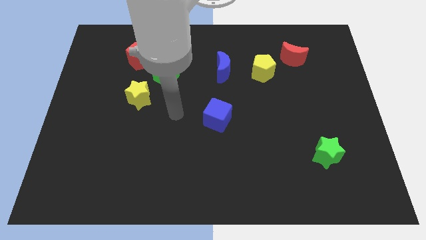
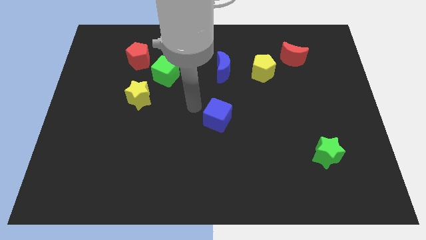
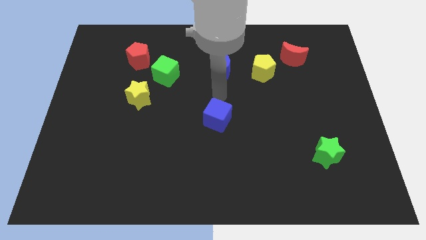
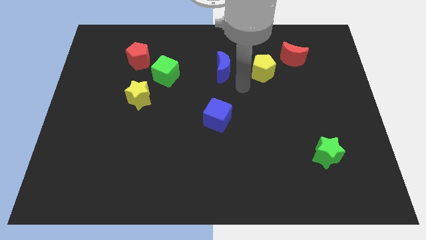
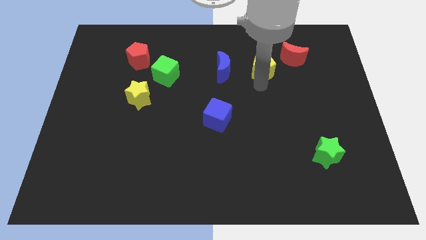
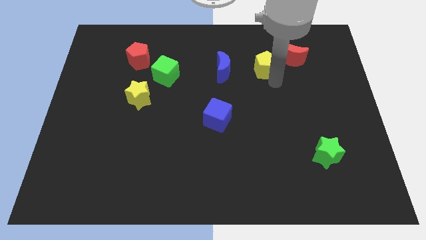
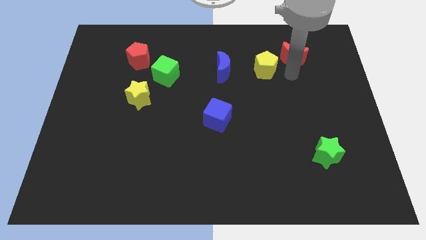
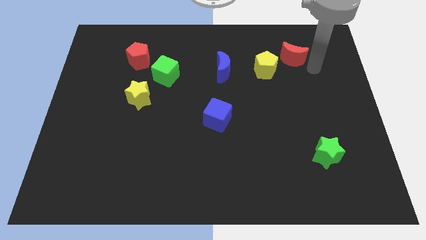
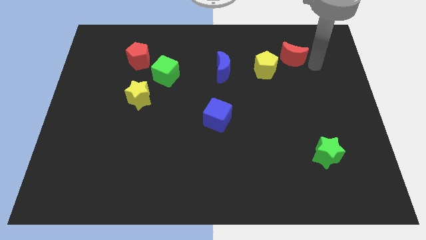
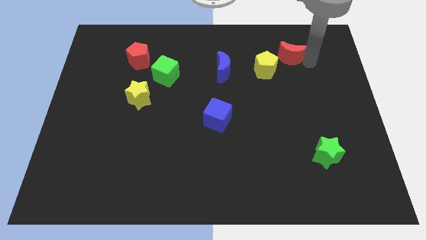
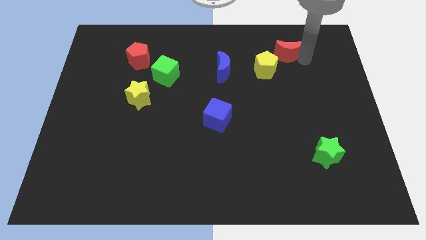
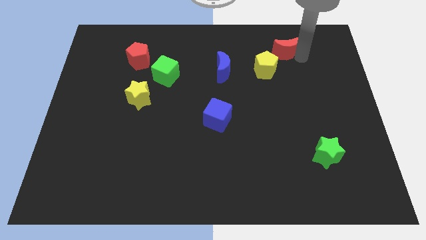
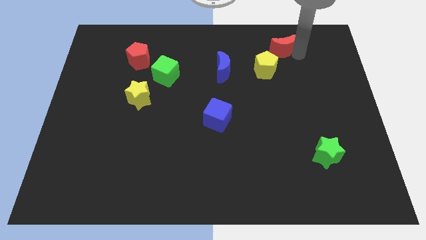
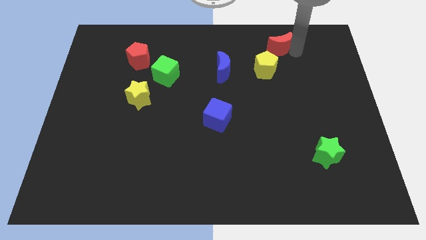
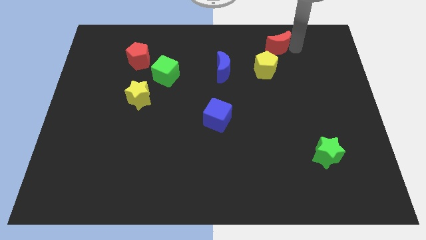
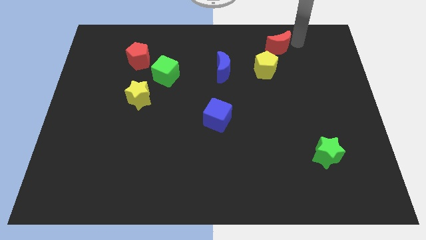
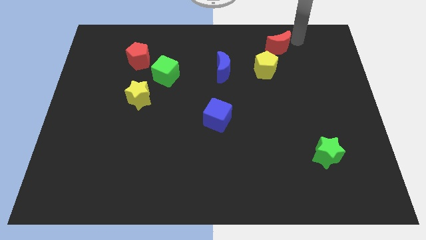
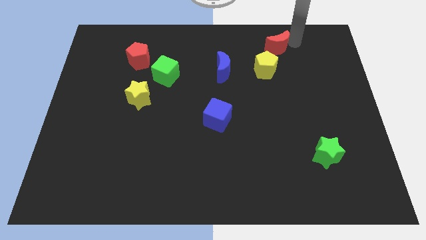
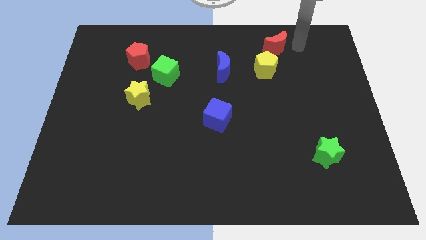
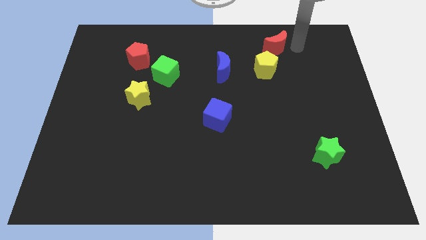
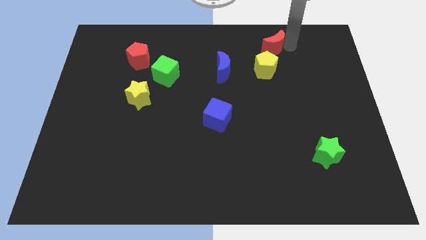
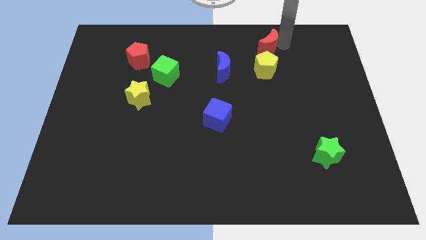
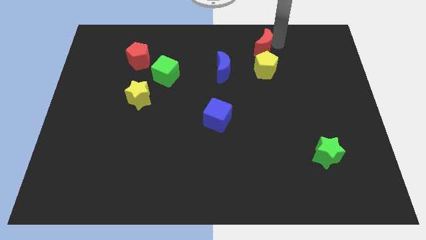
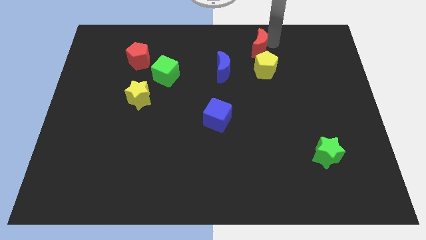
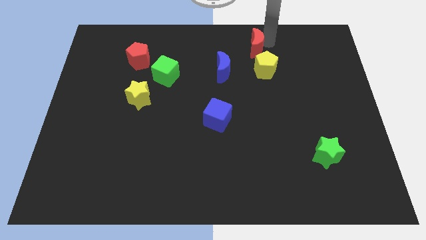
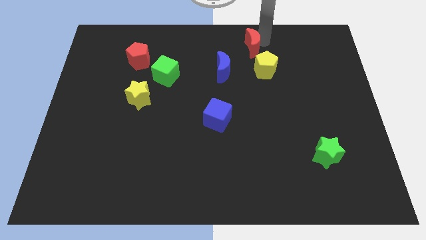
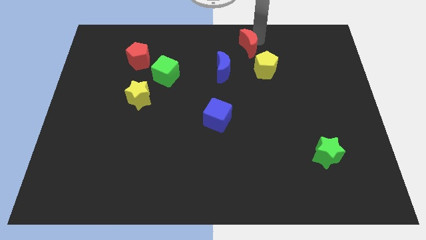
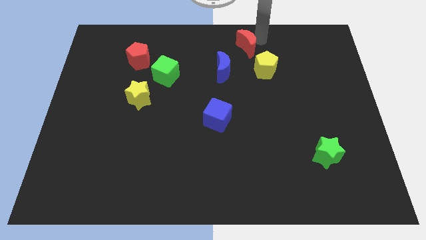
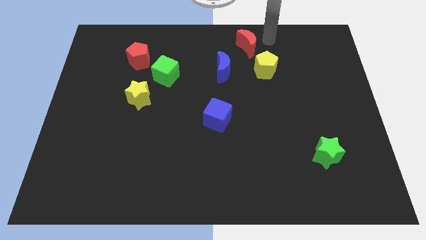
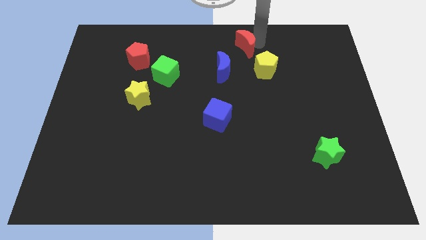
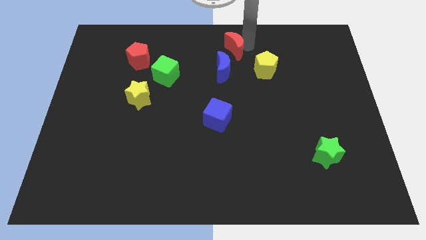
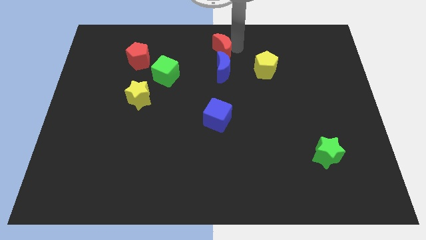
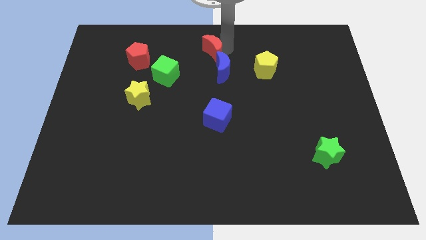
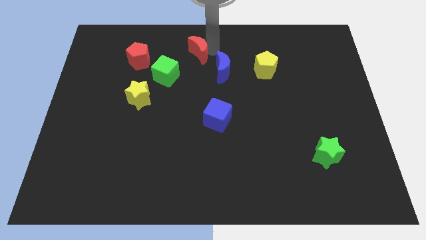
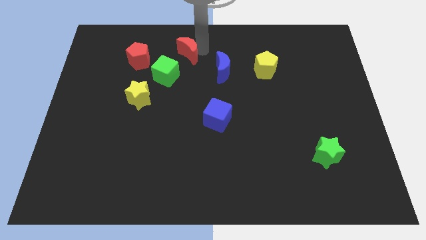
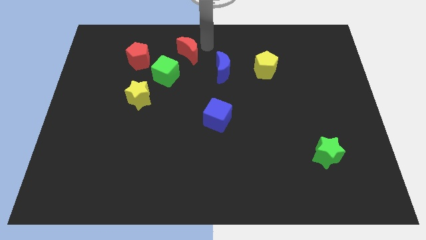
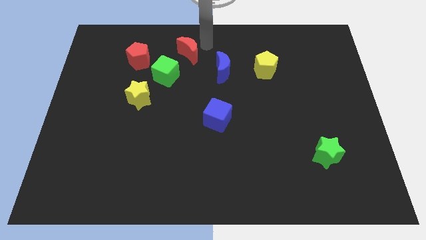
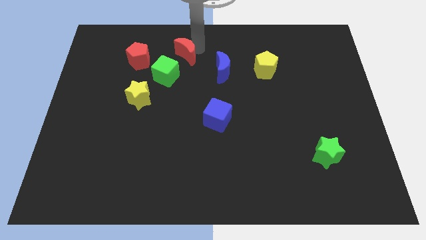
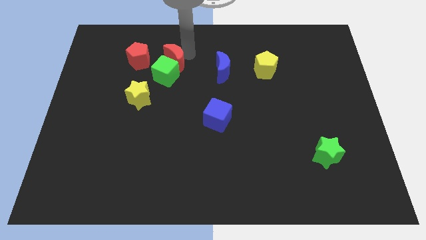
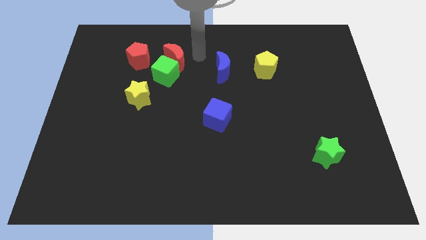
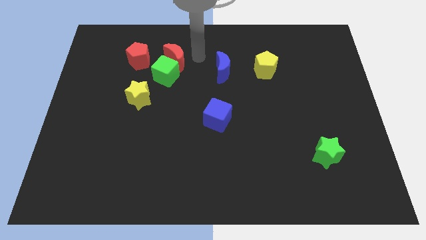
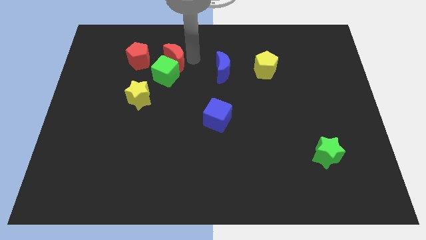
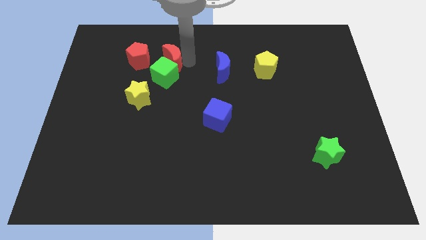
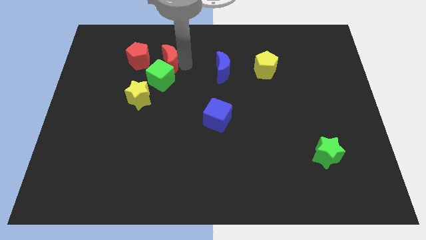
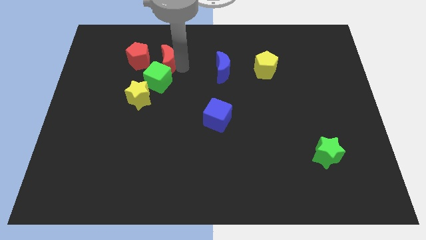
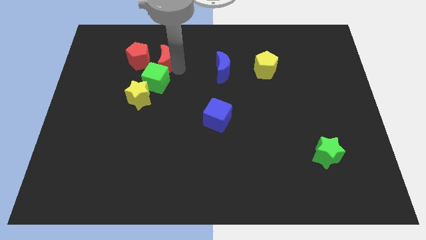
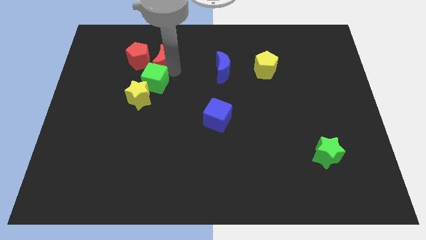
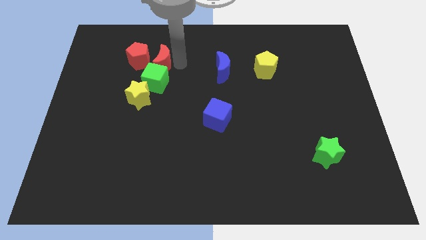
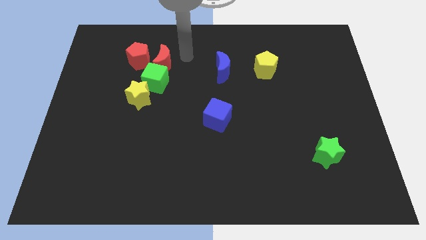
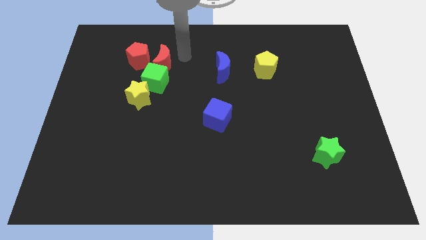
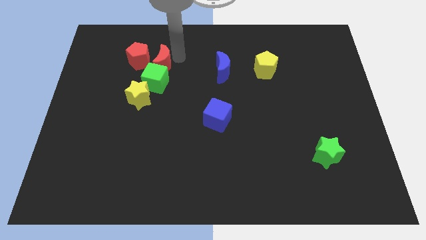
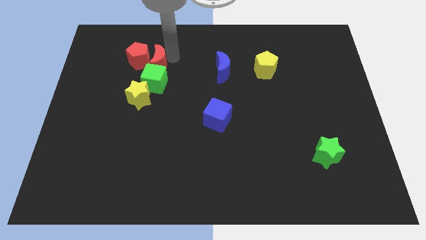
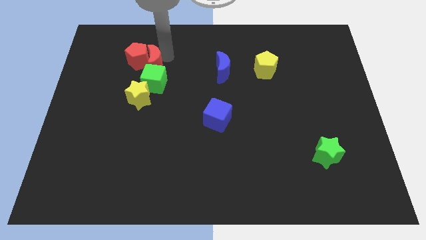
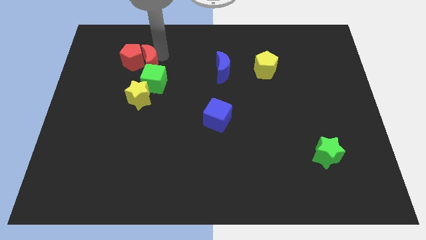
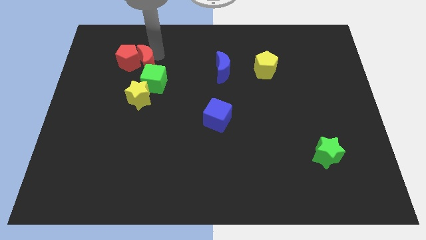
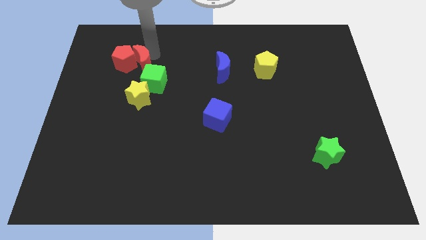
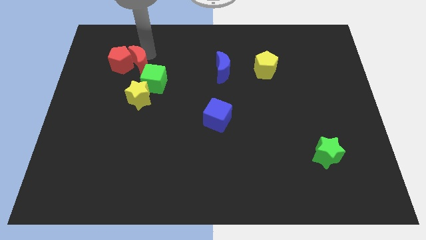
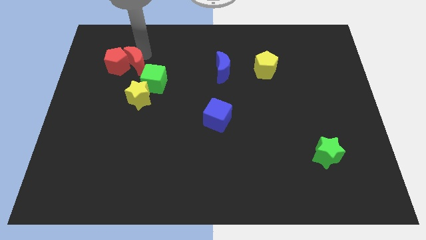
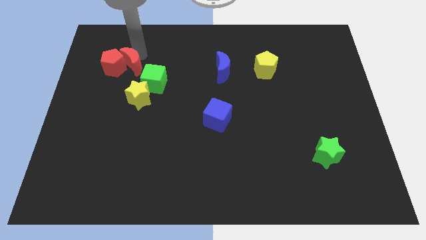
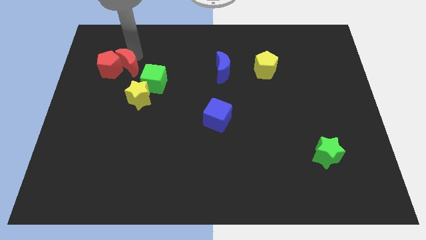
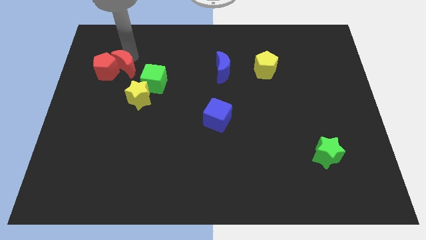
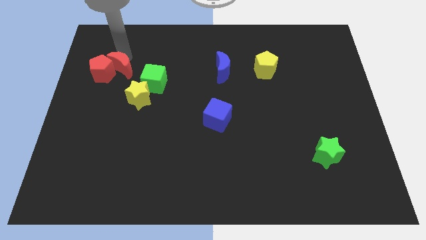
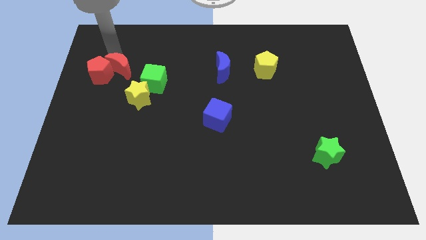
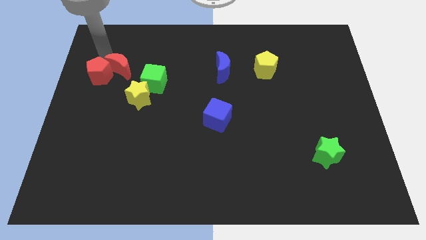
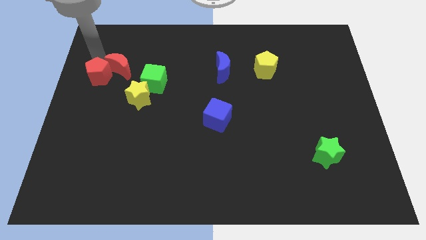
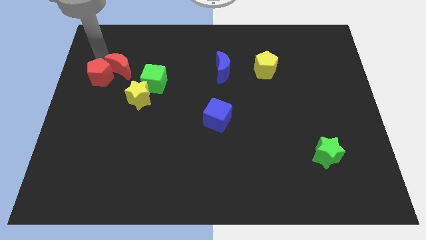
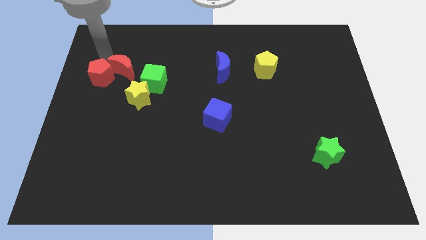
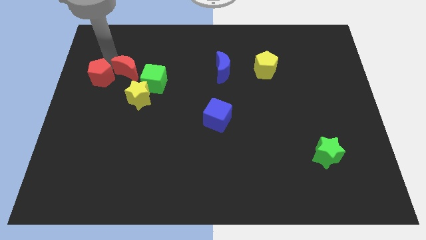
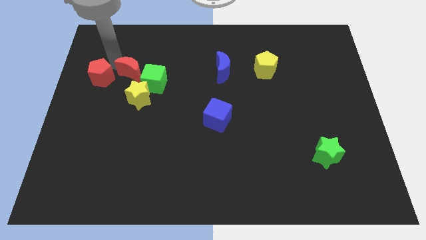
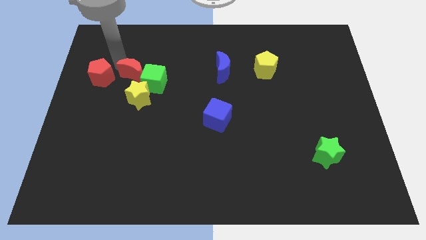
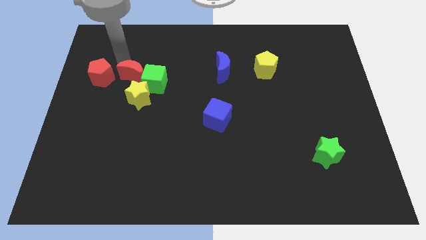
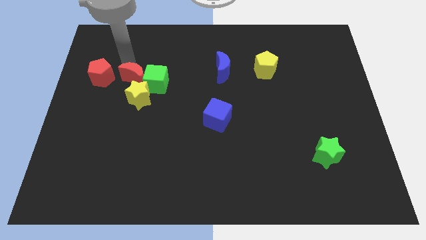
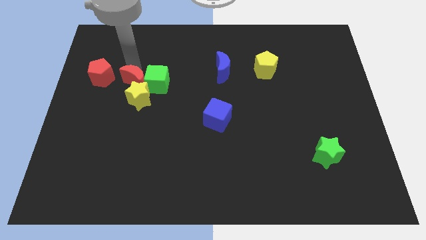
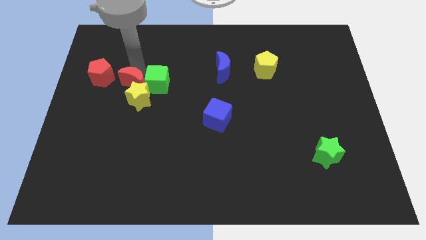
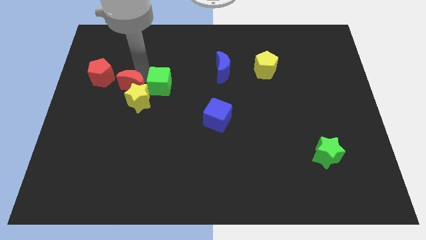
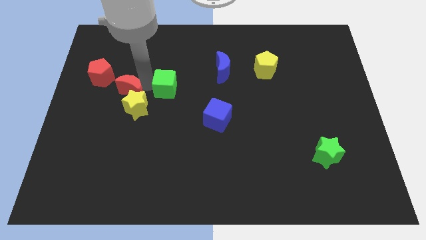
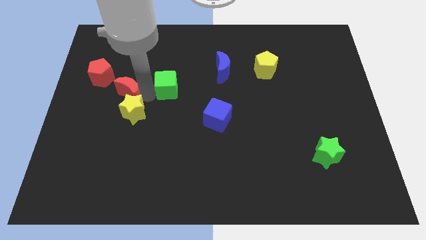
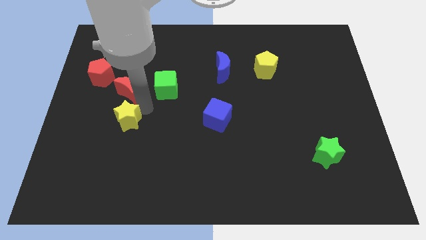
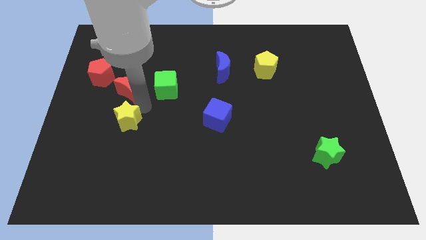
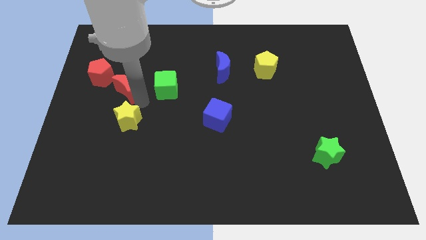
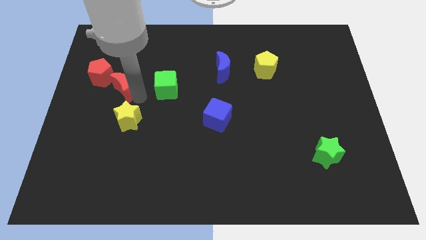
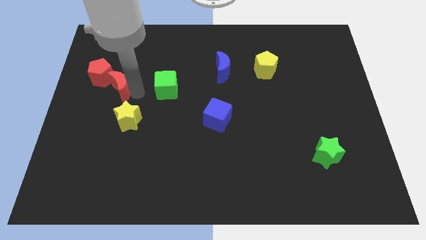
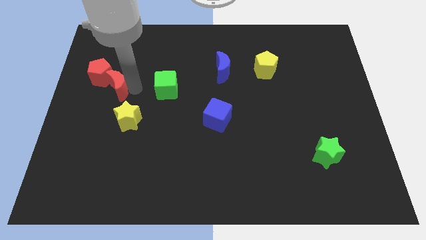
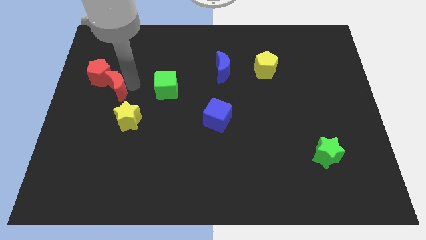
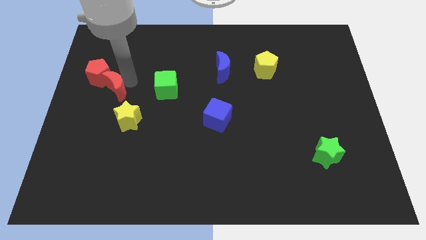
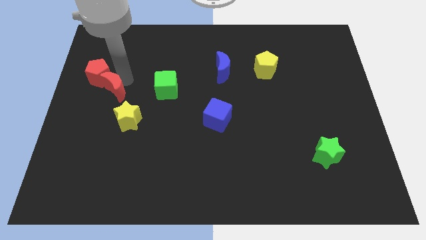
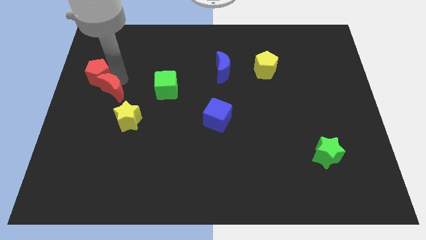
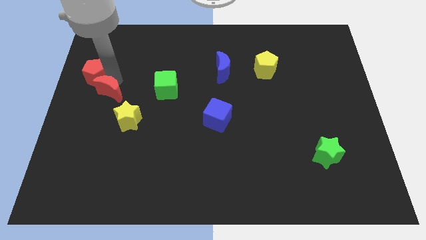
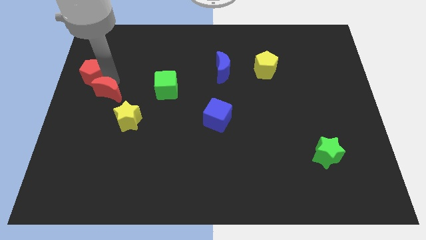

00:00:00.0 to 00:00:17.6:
slide the red moon to the left side of the board
